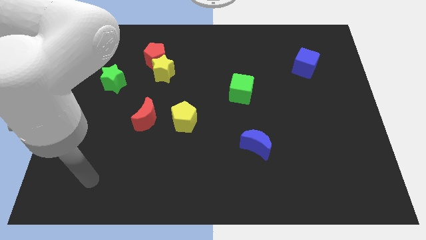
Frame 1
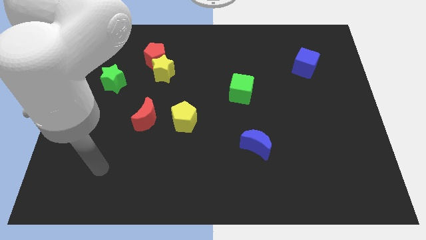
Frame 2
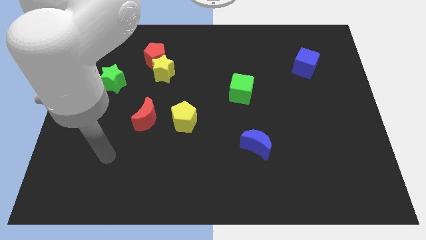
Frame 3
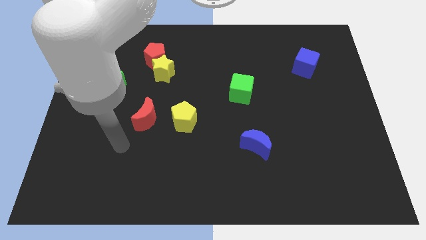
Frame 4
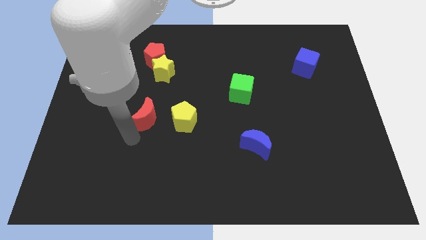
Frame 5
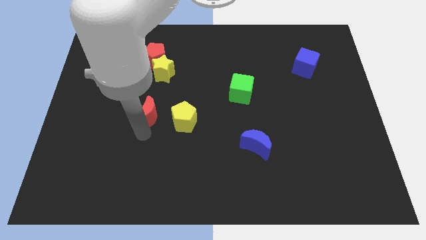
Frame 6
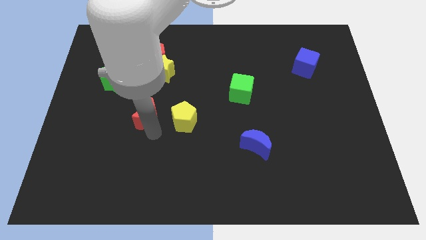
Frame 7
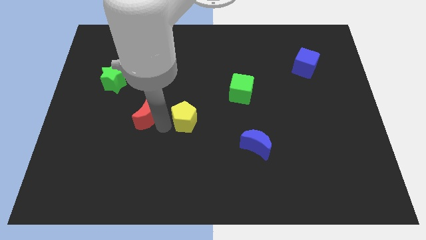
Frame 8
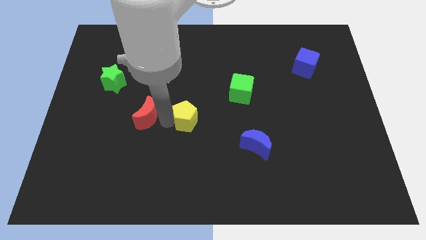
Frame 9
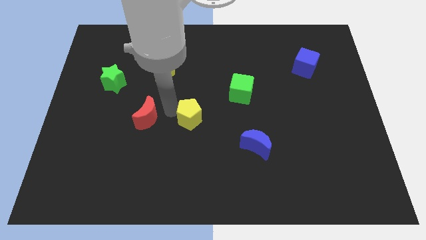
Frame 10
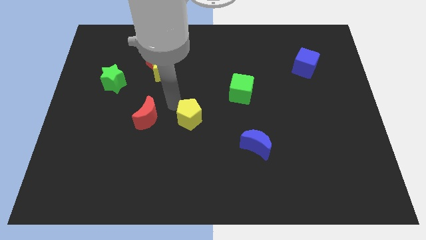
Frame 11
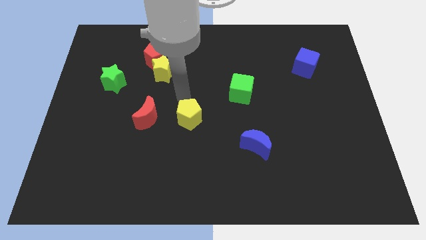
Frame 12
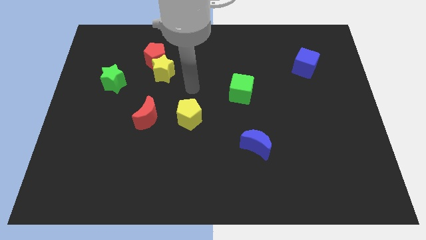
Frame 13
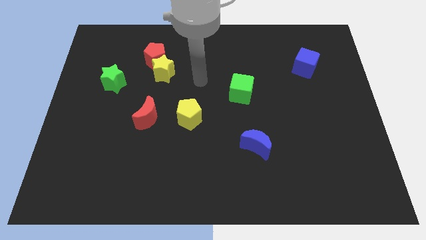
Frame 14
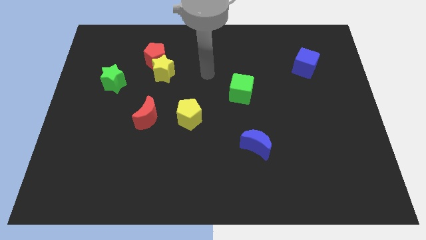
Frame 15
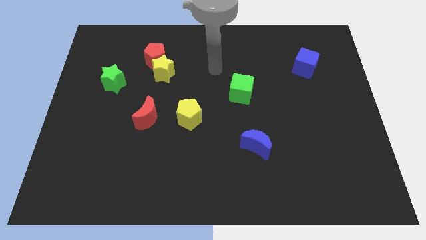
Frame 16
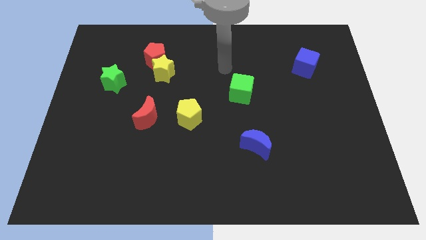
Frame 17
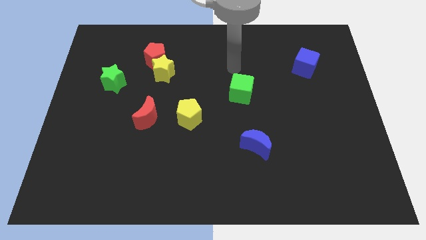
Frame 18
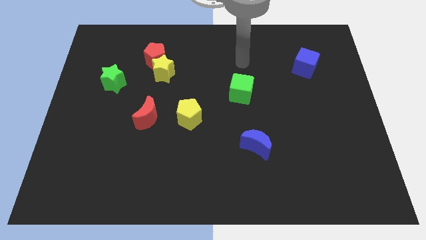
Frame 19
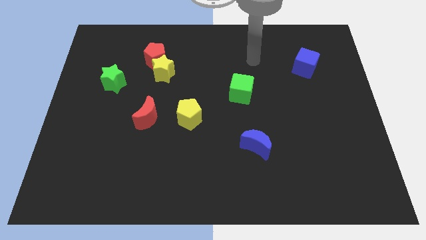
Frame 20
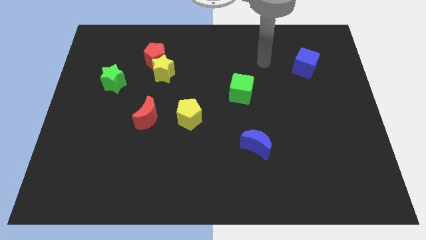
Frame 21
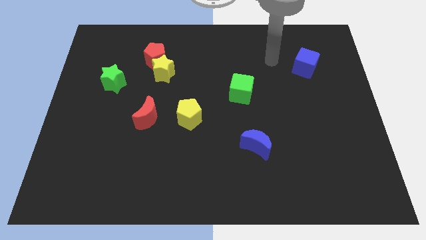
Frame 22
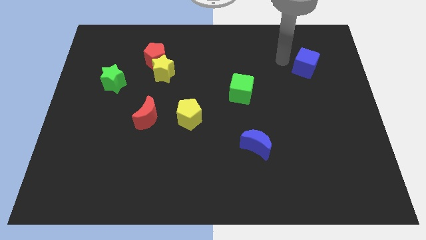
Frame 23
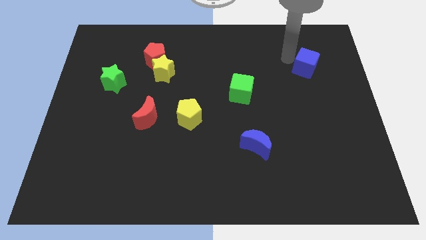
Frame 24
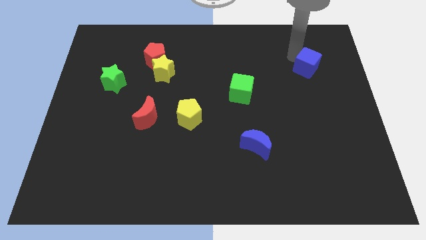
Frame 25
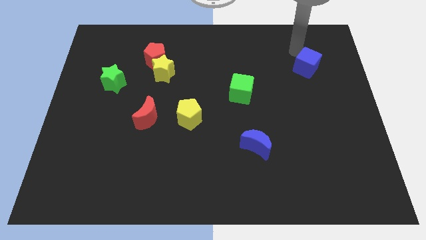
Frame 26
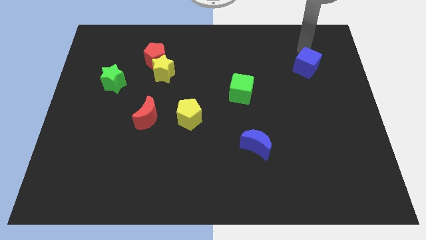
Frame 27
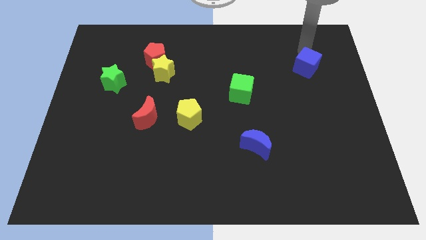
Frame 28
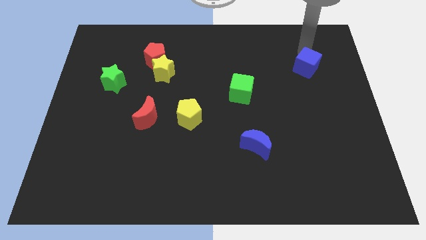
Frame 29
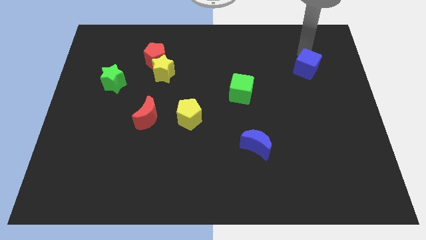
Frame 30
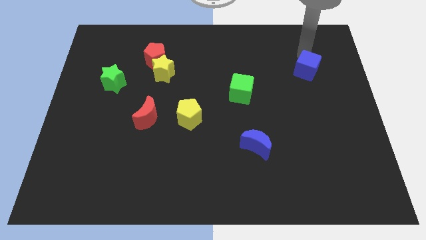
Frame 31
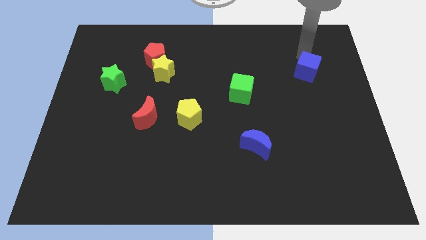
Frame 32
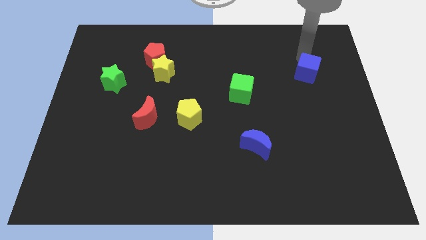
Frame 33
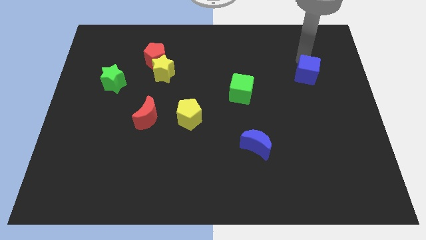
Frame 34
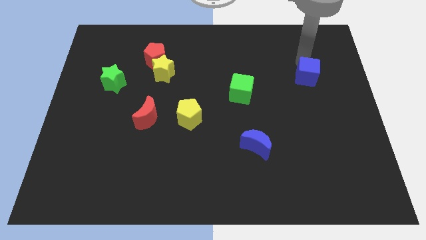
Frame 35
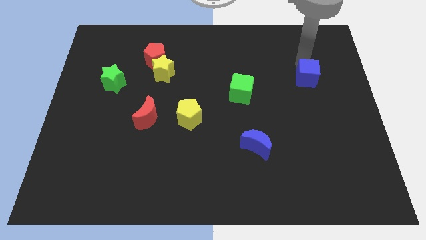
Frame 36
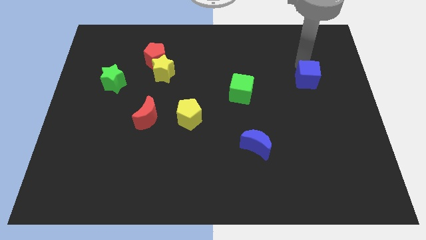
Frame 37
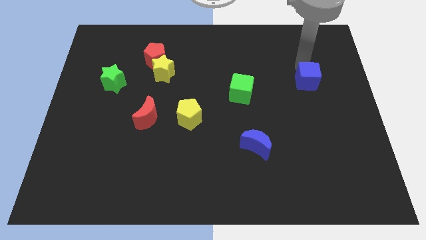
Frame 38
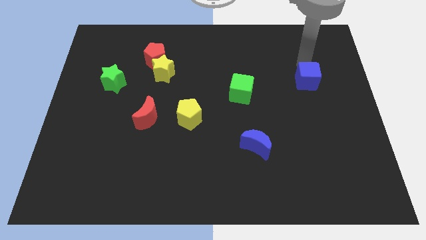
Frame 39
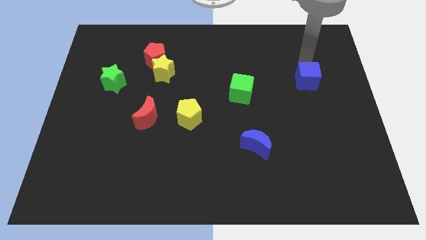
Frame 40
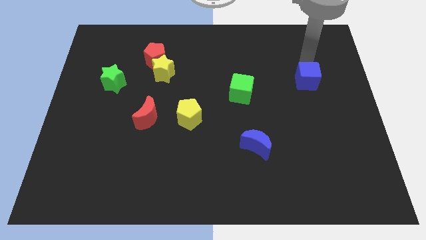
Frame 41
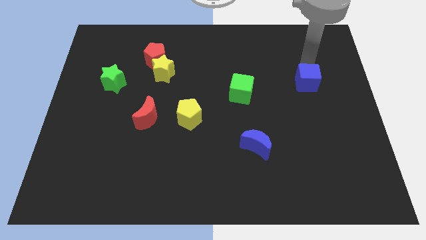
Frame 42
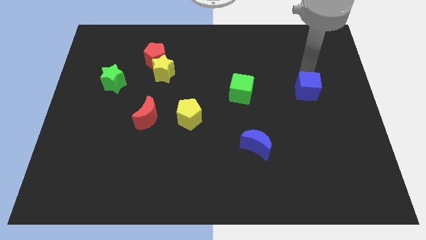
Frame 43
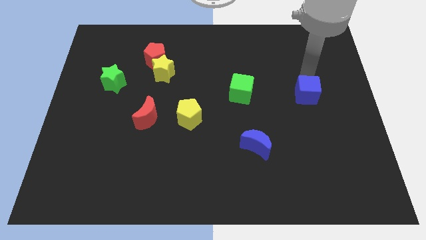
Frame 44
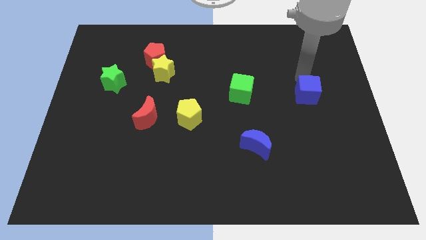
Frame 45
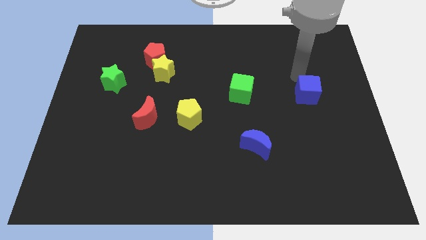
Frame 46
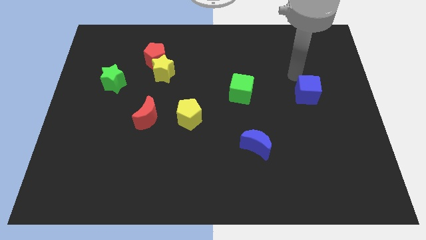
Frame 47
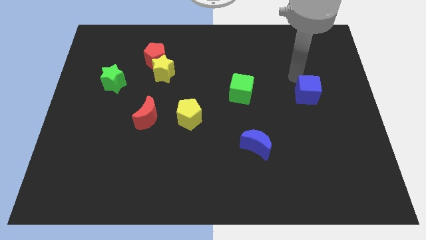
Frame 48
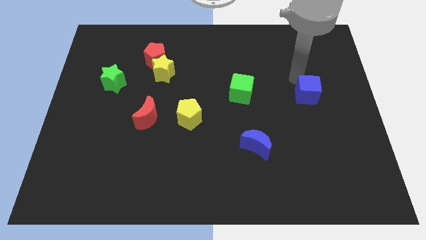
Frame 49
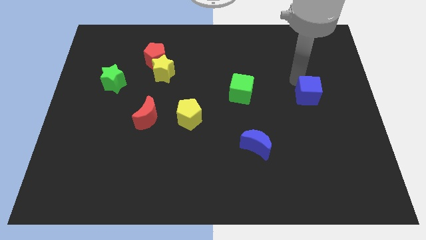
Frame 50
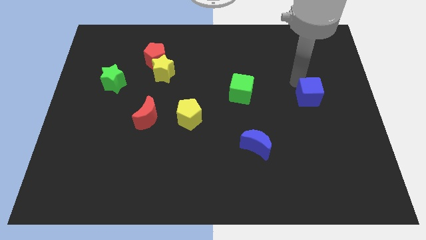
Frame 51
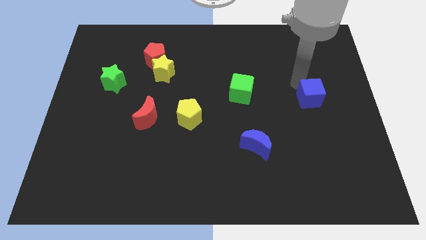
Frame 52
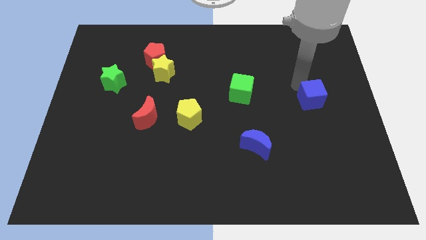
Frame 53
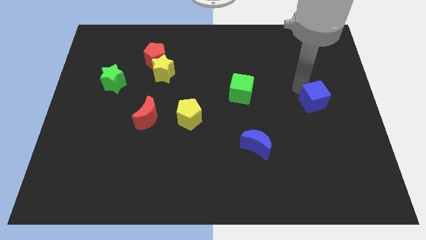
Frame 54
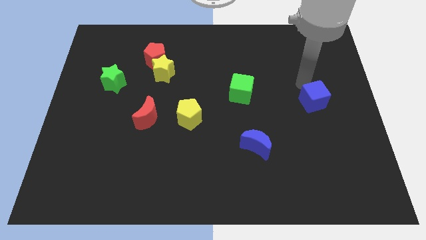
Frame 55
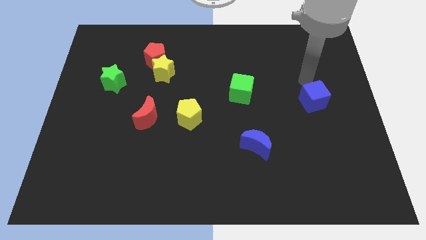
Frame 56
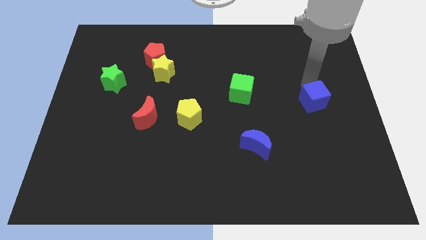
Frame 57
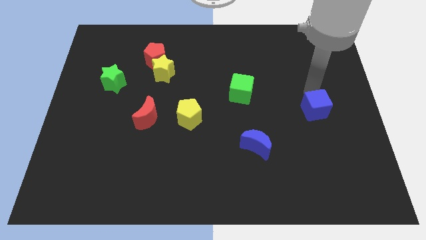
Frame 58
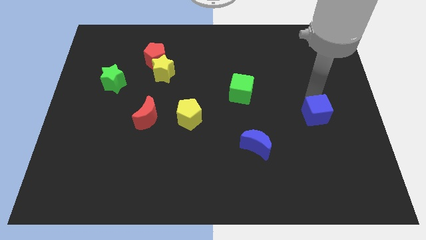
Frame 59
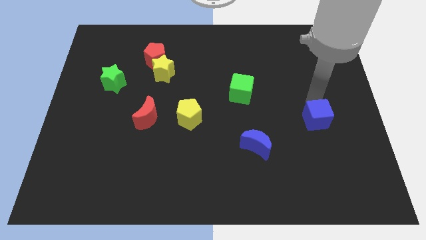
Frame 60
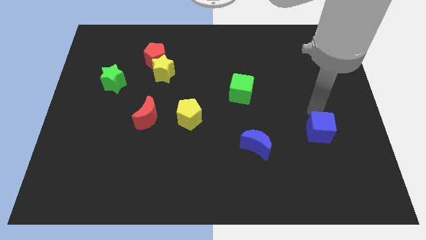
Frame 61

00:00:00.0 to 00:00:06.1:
move the blue cube down

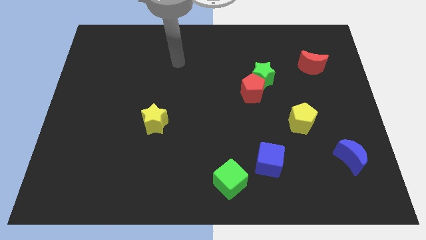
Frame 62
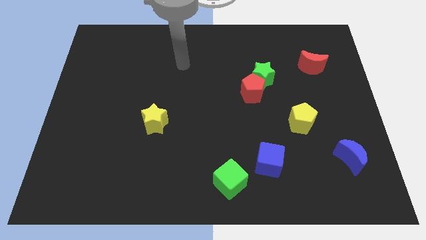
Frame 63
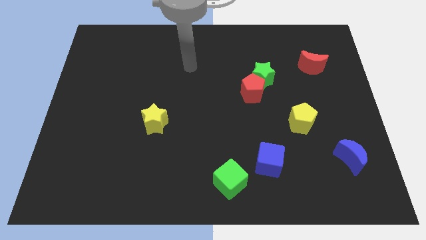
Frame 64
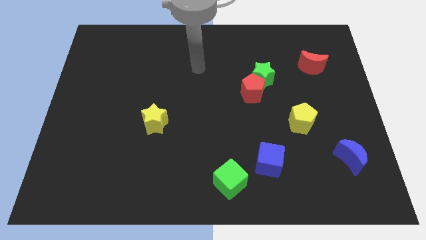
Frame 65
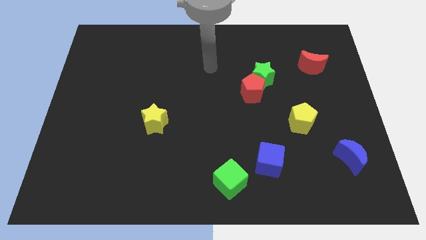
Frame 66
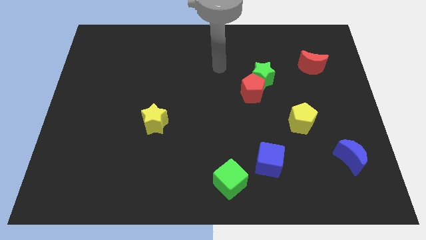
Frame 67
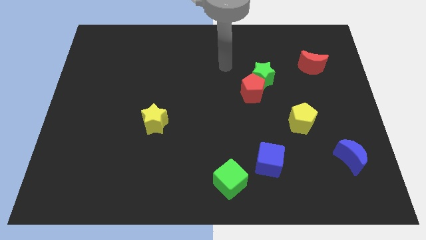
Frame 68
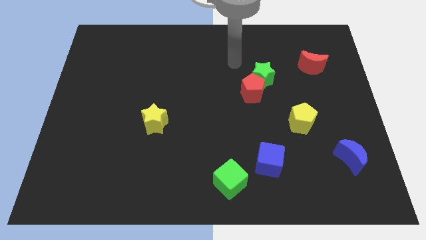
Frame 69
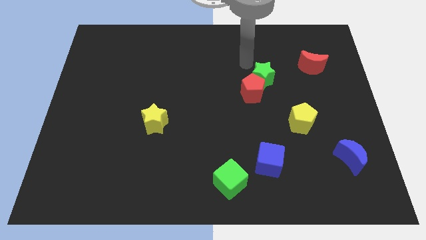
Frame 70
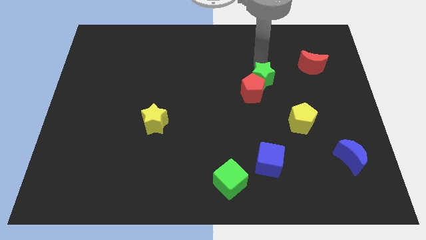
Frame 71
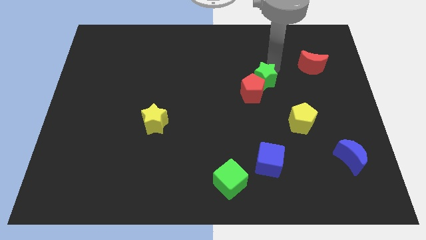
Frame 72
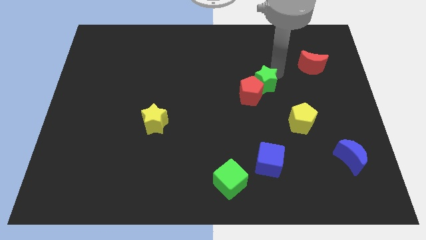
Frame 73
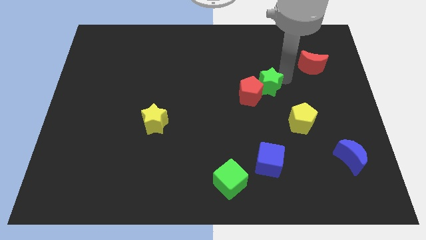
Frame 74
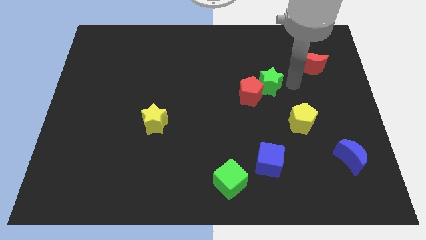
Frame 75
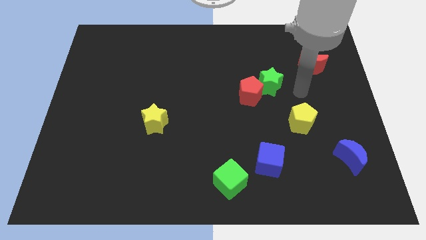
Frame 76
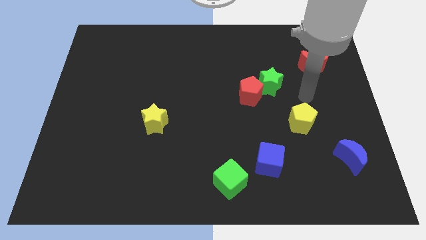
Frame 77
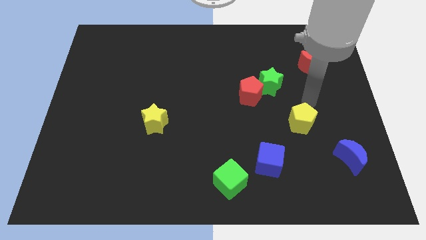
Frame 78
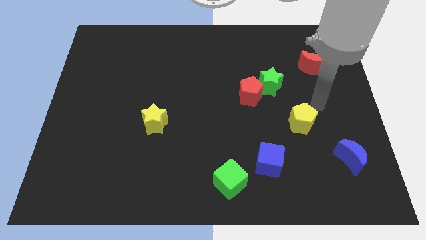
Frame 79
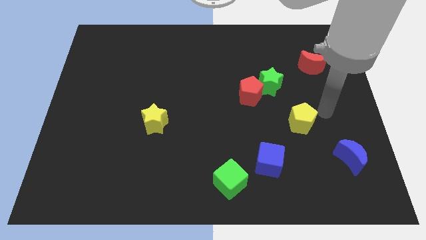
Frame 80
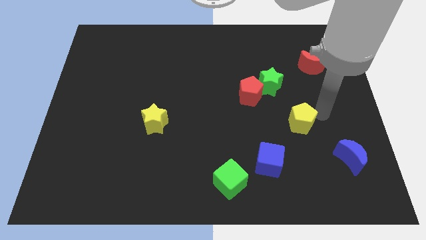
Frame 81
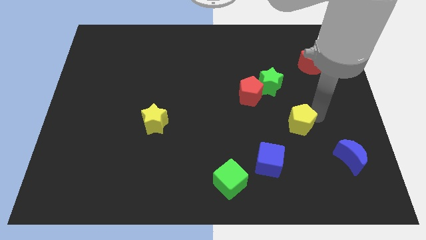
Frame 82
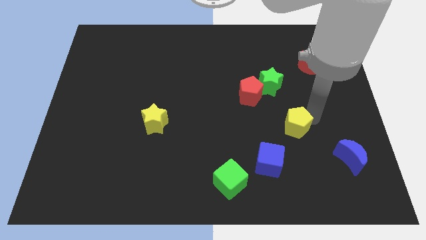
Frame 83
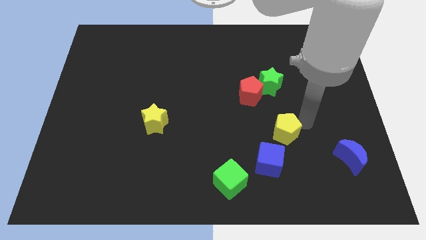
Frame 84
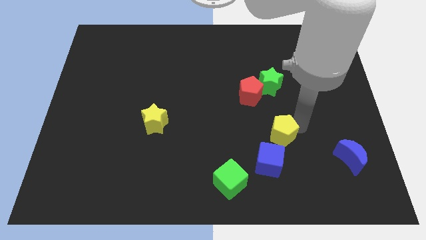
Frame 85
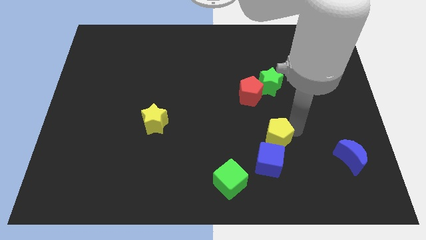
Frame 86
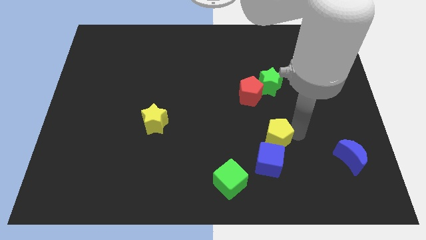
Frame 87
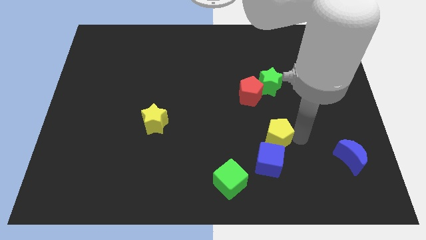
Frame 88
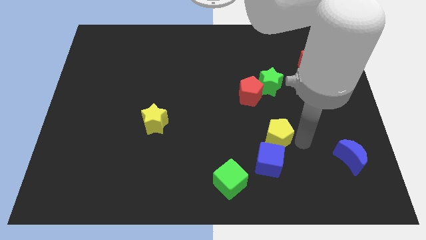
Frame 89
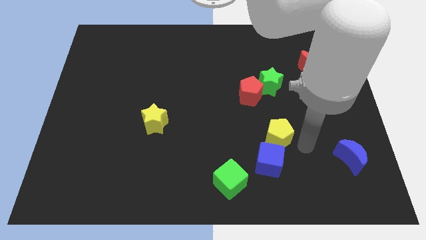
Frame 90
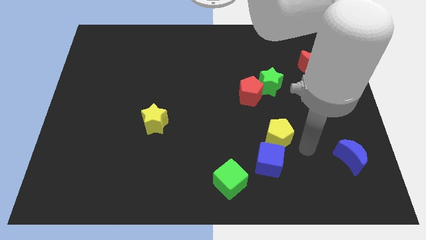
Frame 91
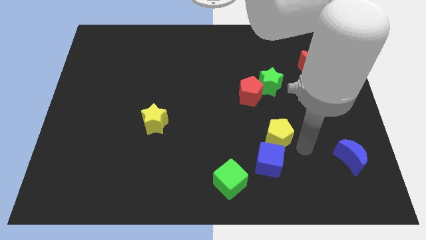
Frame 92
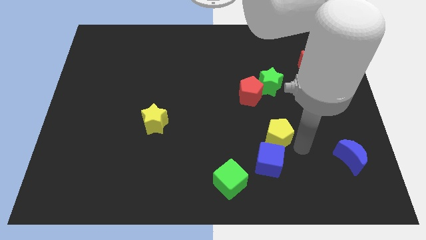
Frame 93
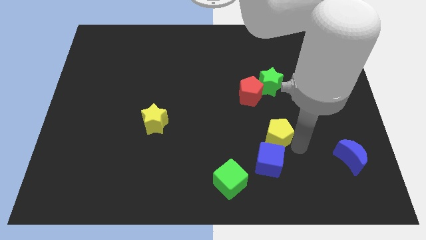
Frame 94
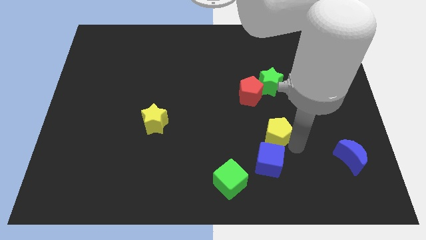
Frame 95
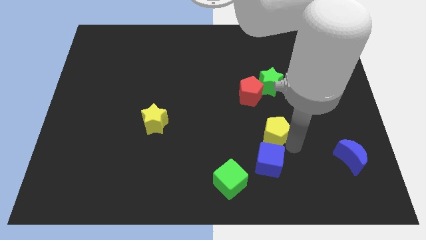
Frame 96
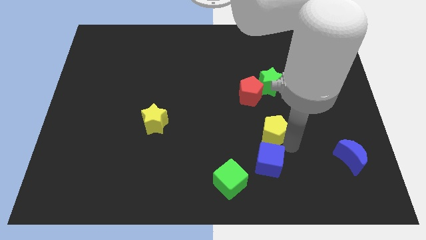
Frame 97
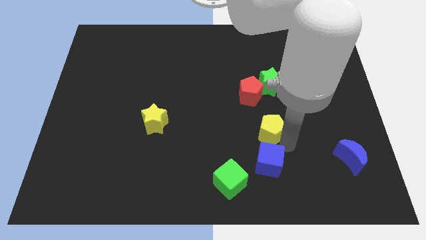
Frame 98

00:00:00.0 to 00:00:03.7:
move the yellow pentagon to the left a little
